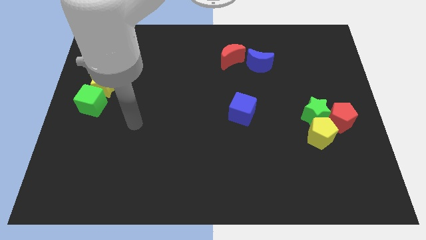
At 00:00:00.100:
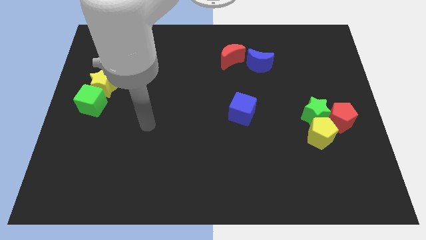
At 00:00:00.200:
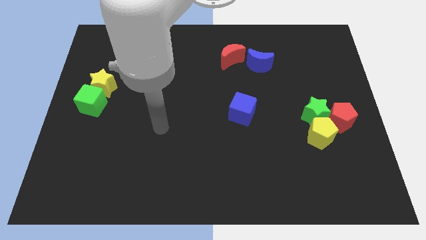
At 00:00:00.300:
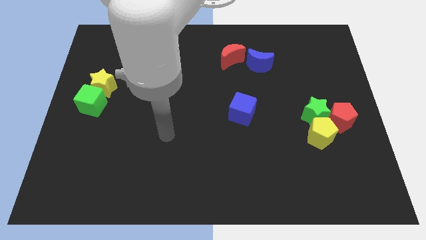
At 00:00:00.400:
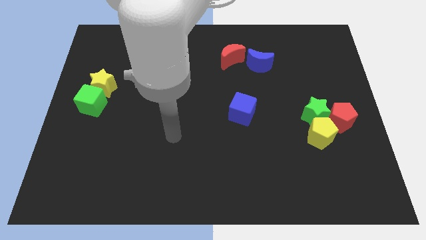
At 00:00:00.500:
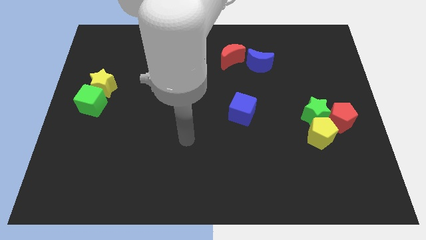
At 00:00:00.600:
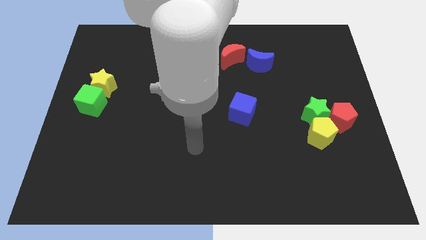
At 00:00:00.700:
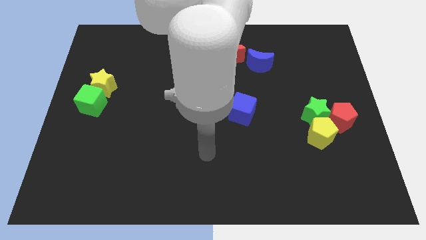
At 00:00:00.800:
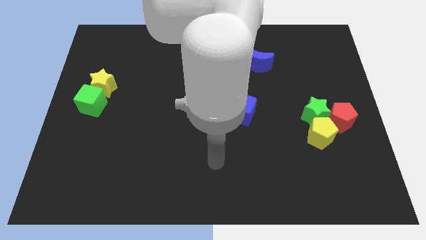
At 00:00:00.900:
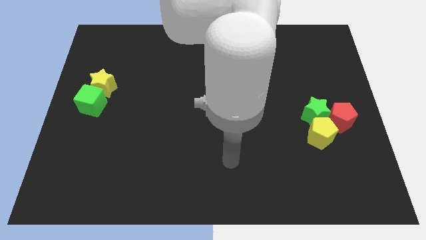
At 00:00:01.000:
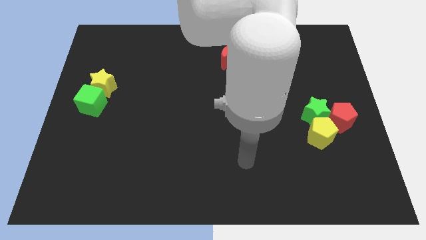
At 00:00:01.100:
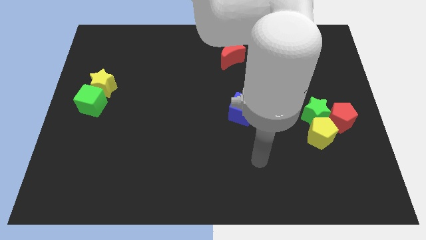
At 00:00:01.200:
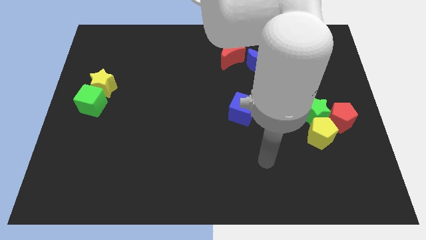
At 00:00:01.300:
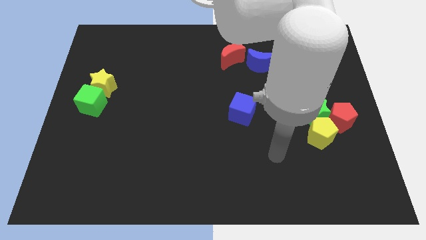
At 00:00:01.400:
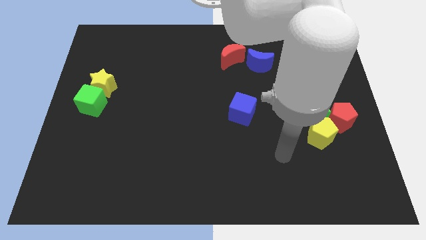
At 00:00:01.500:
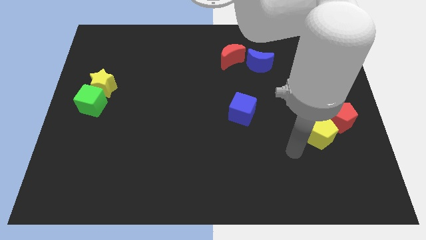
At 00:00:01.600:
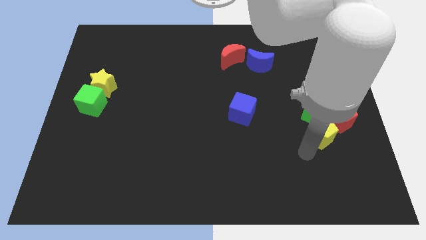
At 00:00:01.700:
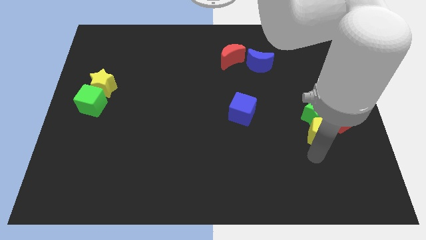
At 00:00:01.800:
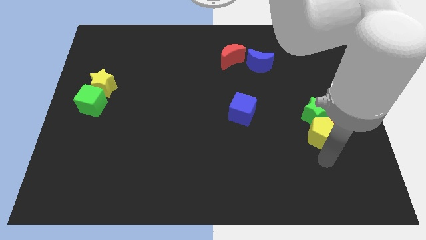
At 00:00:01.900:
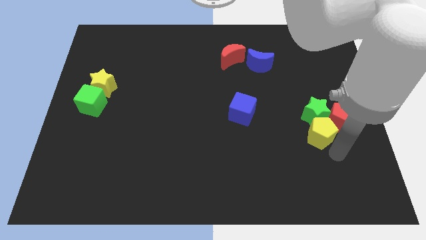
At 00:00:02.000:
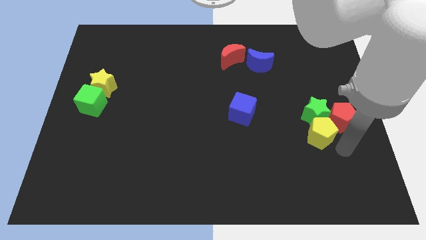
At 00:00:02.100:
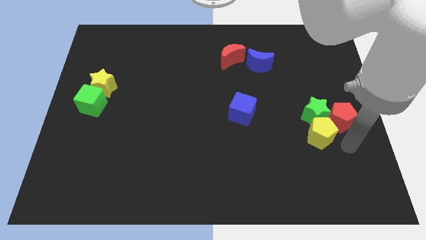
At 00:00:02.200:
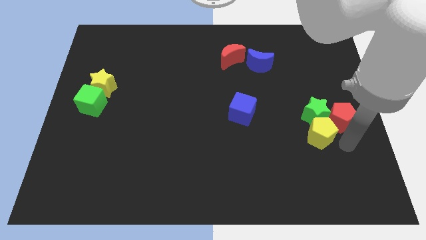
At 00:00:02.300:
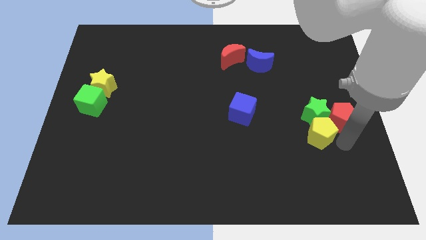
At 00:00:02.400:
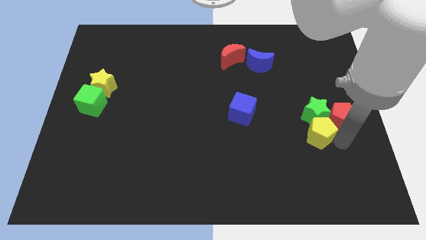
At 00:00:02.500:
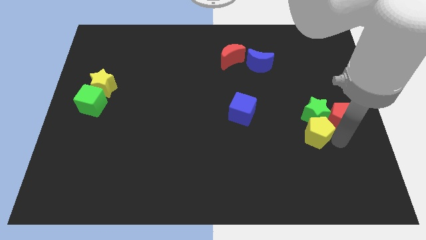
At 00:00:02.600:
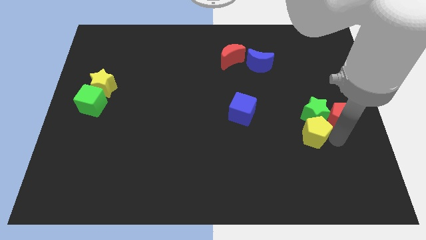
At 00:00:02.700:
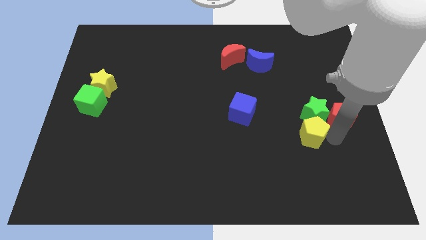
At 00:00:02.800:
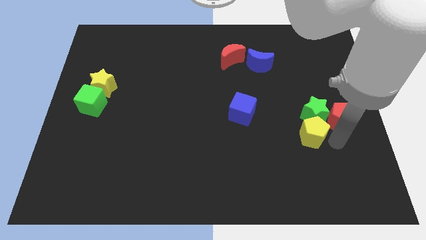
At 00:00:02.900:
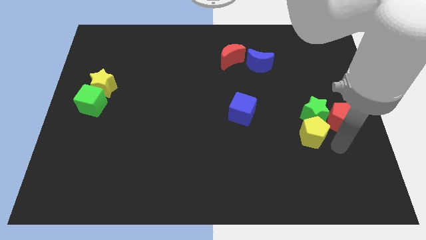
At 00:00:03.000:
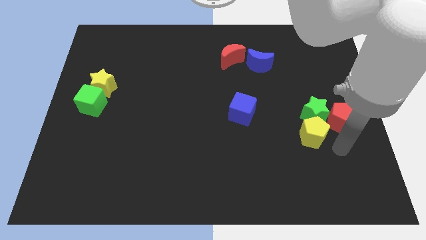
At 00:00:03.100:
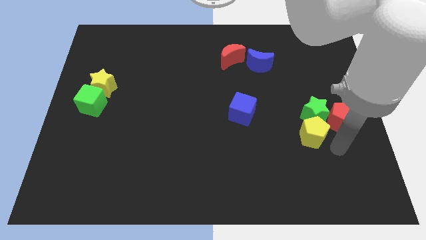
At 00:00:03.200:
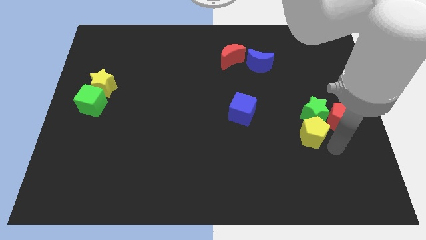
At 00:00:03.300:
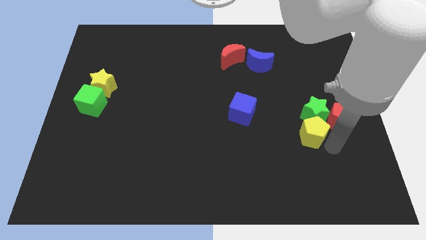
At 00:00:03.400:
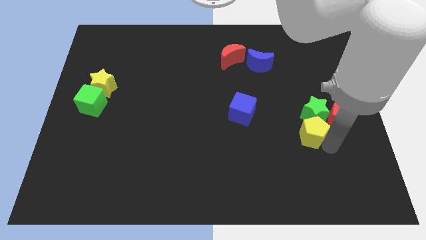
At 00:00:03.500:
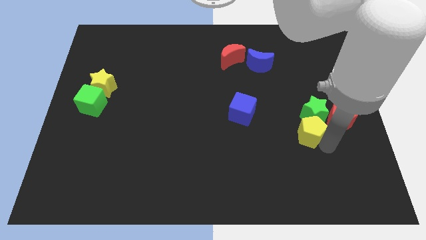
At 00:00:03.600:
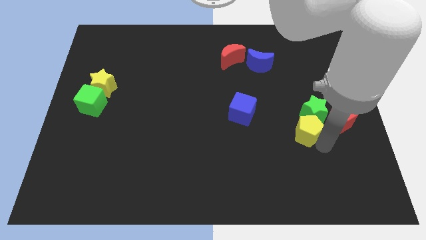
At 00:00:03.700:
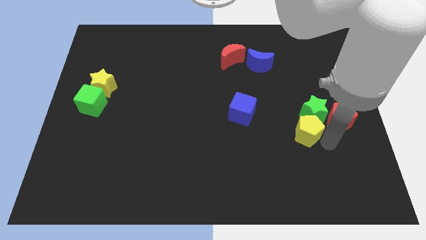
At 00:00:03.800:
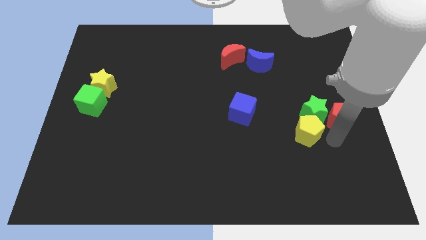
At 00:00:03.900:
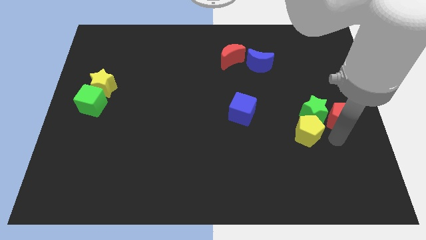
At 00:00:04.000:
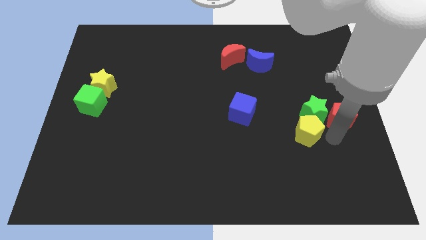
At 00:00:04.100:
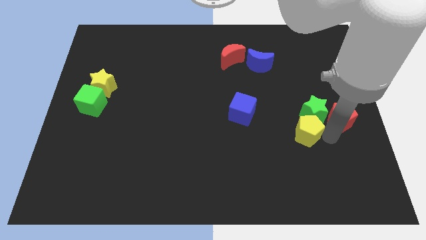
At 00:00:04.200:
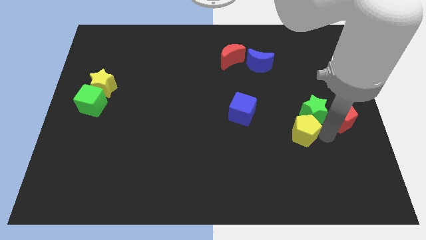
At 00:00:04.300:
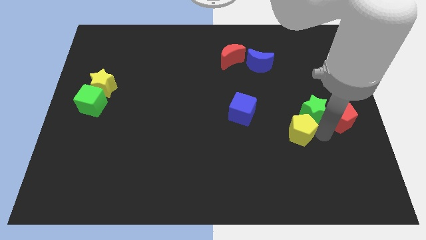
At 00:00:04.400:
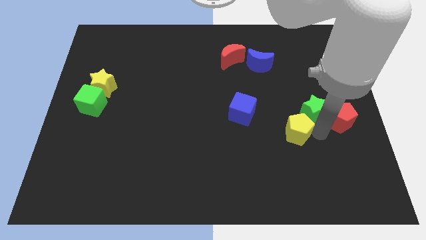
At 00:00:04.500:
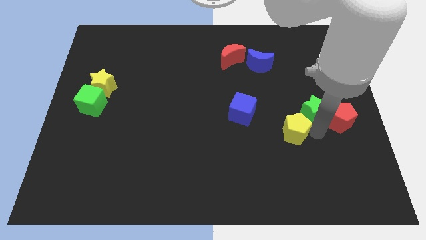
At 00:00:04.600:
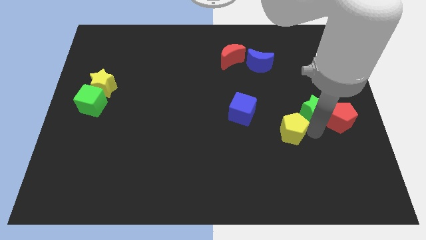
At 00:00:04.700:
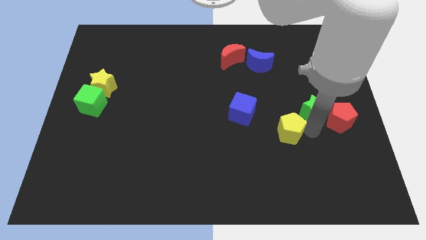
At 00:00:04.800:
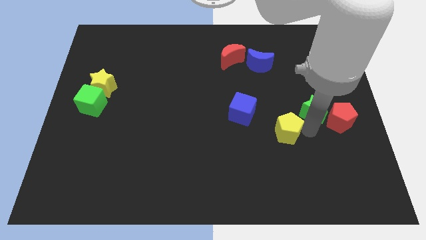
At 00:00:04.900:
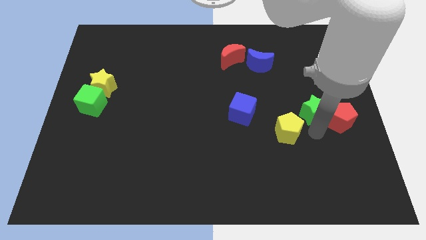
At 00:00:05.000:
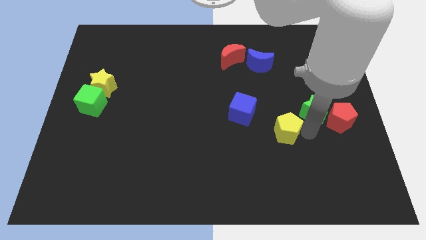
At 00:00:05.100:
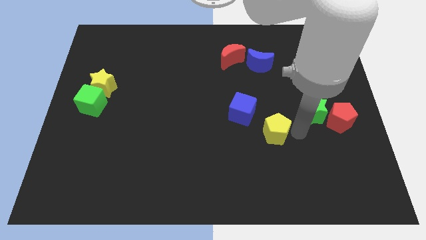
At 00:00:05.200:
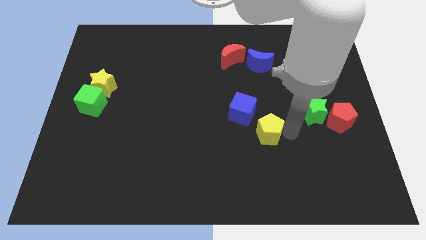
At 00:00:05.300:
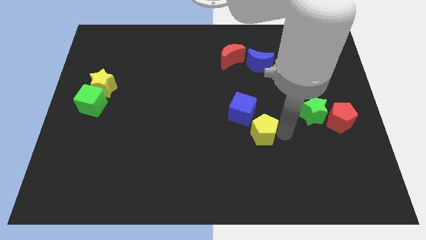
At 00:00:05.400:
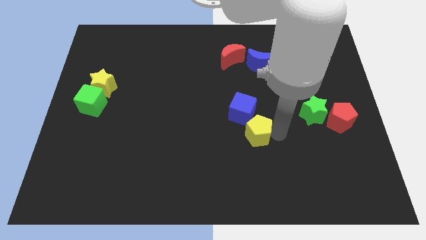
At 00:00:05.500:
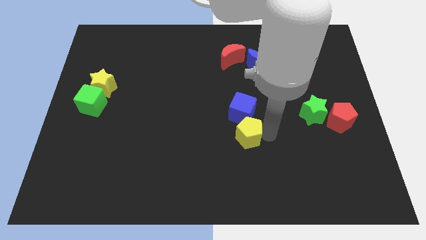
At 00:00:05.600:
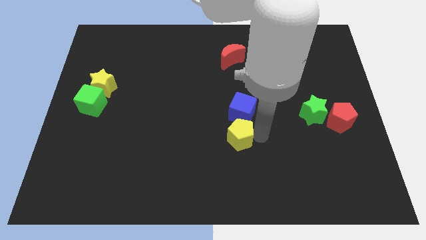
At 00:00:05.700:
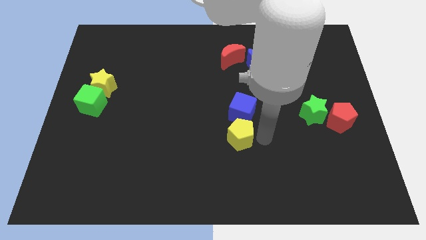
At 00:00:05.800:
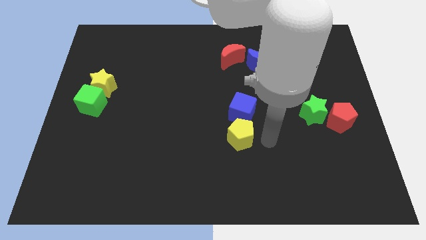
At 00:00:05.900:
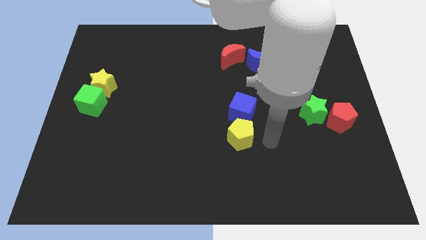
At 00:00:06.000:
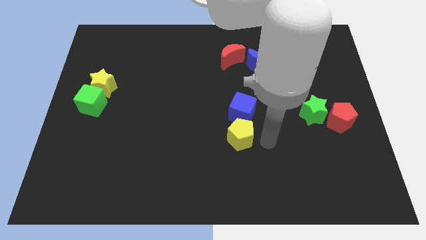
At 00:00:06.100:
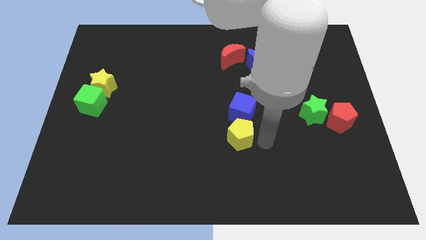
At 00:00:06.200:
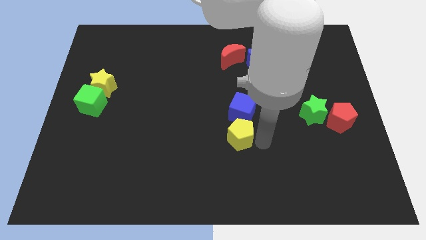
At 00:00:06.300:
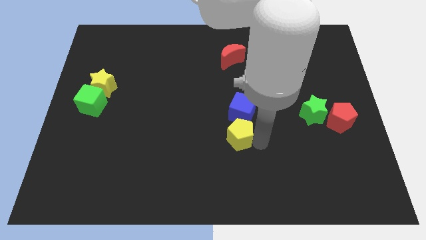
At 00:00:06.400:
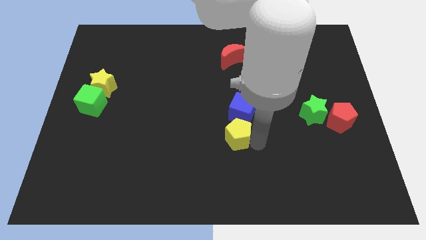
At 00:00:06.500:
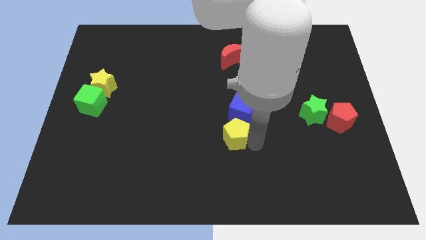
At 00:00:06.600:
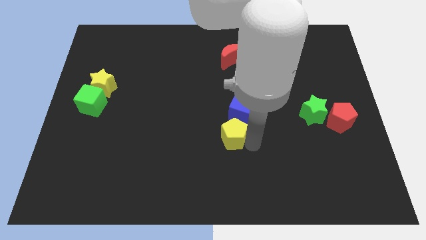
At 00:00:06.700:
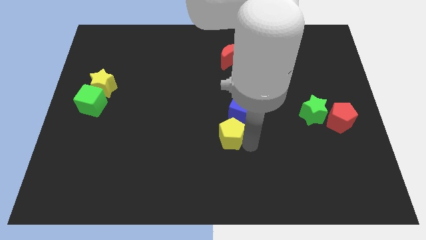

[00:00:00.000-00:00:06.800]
slide the yellow pentagon to the left

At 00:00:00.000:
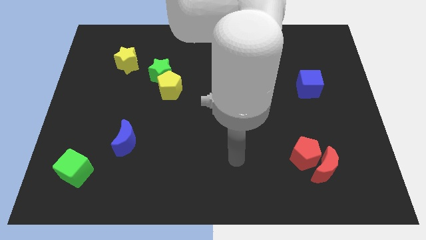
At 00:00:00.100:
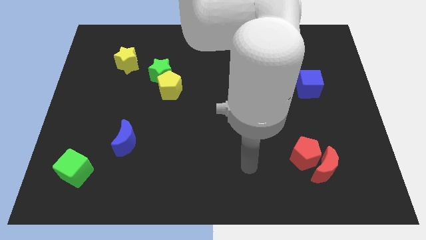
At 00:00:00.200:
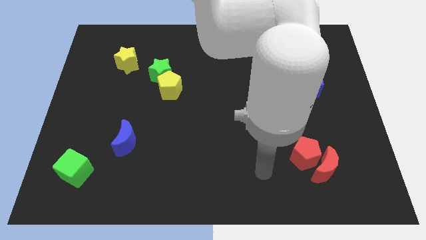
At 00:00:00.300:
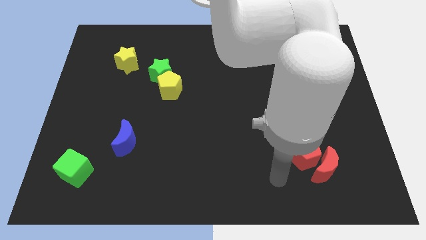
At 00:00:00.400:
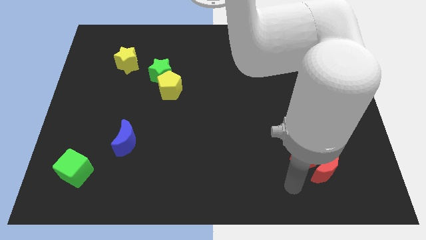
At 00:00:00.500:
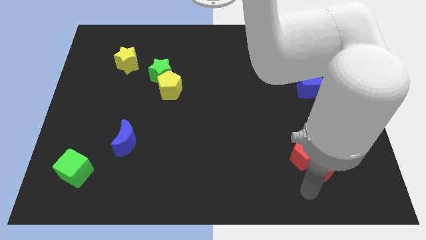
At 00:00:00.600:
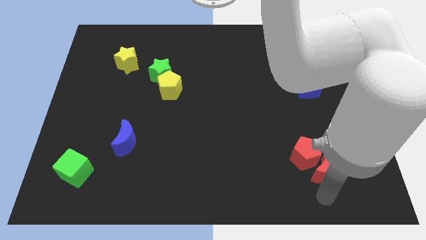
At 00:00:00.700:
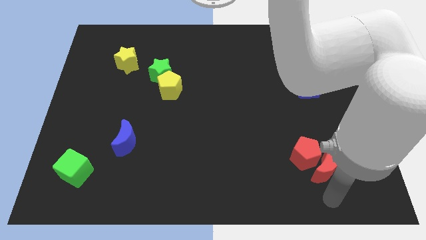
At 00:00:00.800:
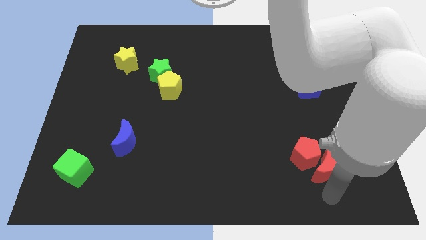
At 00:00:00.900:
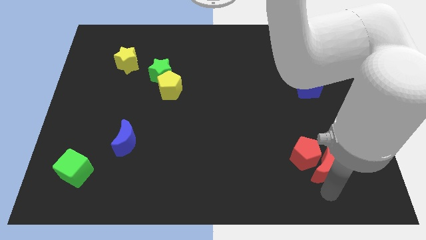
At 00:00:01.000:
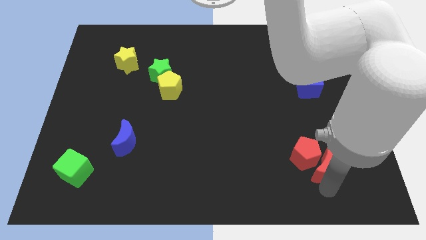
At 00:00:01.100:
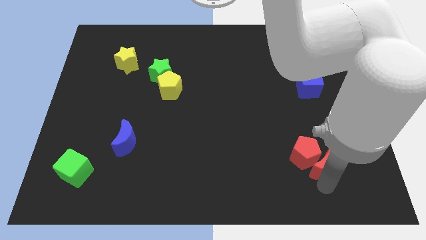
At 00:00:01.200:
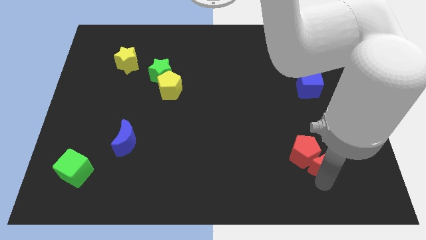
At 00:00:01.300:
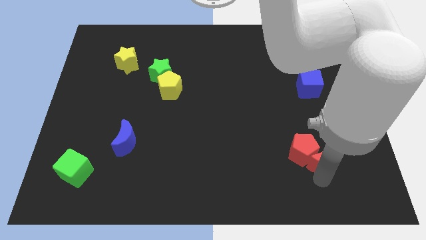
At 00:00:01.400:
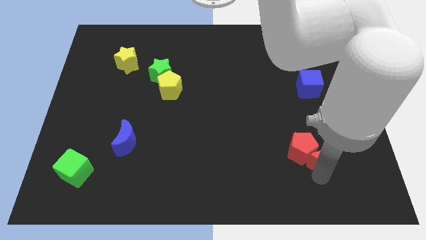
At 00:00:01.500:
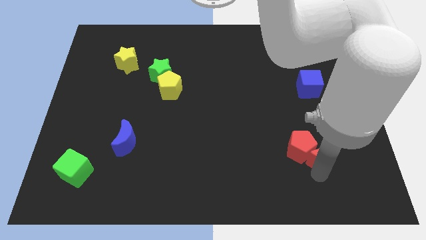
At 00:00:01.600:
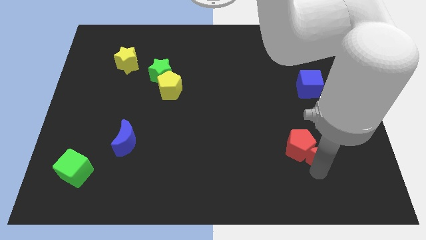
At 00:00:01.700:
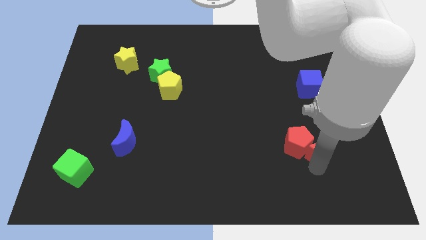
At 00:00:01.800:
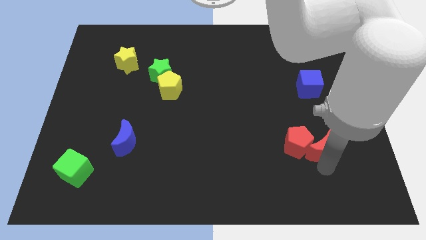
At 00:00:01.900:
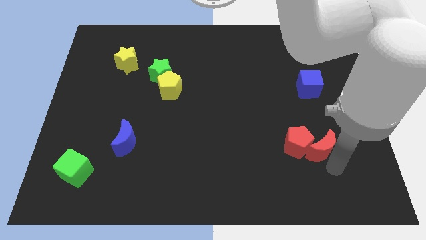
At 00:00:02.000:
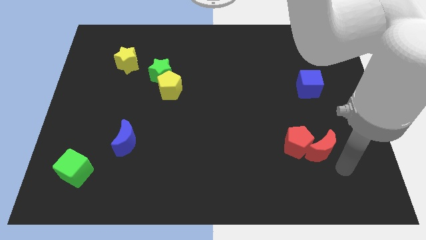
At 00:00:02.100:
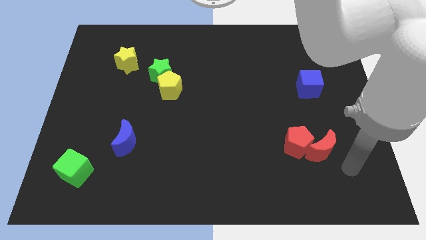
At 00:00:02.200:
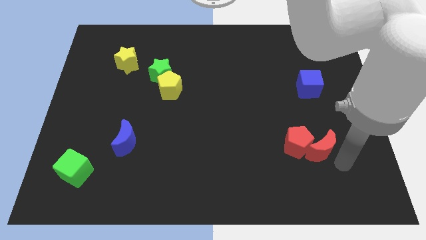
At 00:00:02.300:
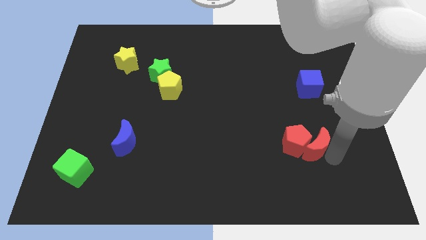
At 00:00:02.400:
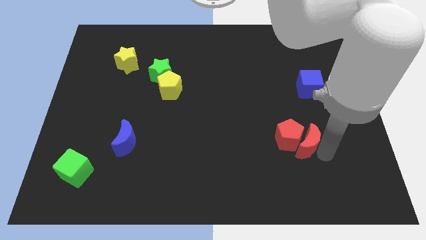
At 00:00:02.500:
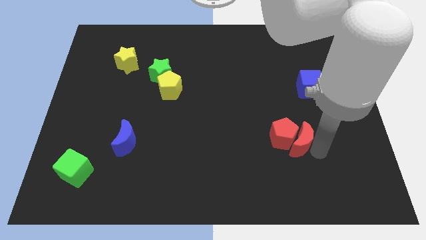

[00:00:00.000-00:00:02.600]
slightly slide the red moon upwards and to the left
